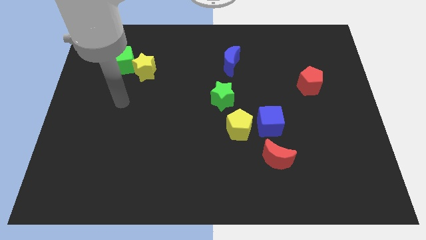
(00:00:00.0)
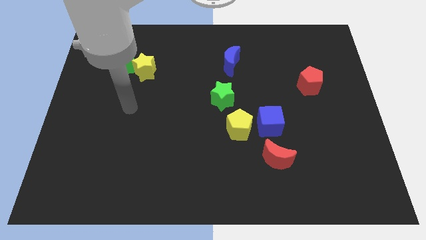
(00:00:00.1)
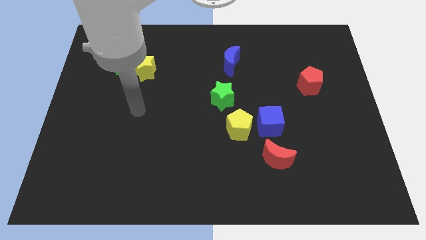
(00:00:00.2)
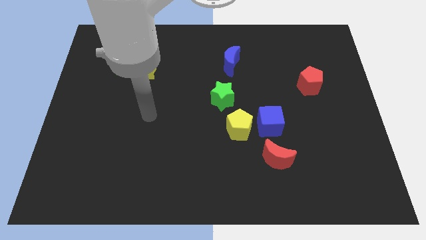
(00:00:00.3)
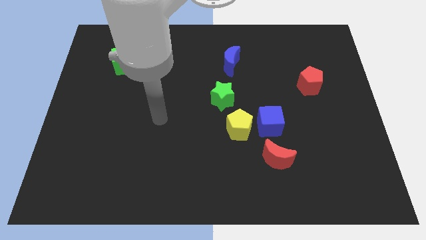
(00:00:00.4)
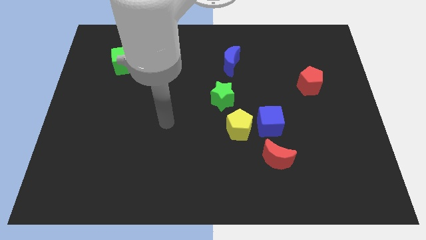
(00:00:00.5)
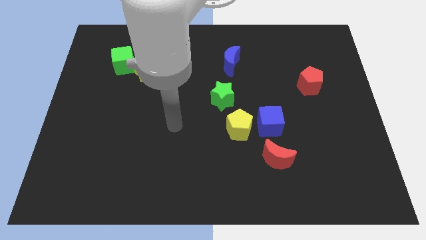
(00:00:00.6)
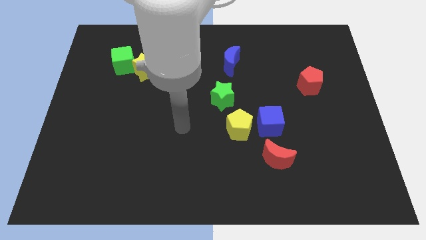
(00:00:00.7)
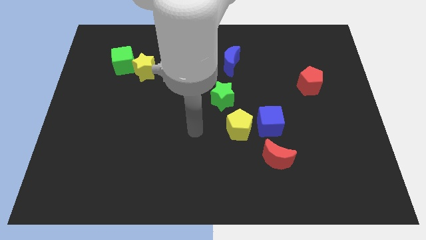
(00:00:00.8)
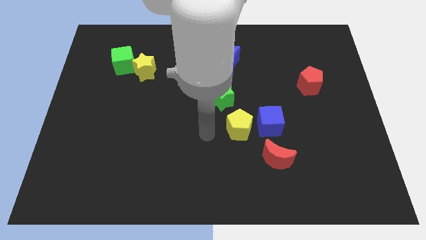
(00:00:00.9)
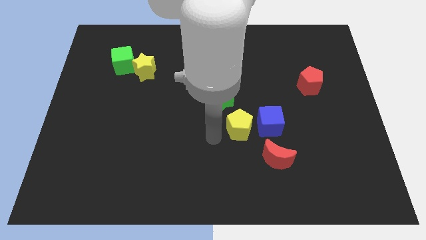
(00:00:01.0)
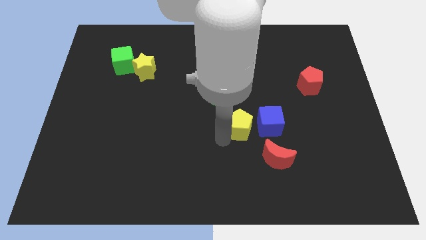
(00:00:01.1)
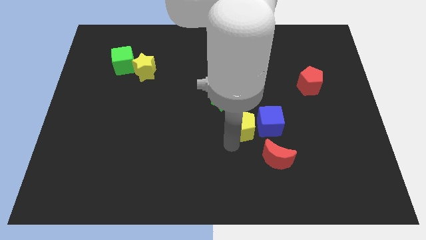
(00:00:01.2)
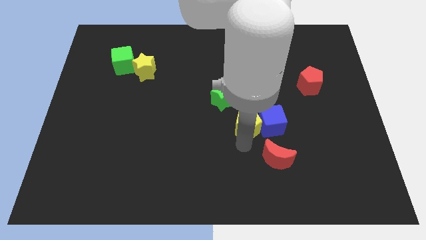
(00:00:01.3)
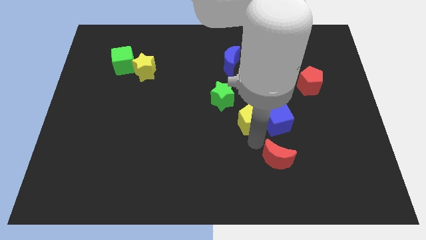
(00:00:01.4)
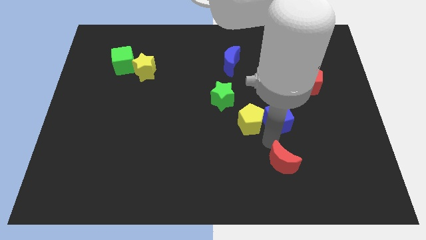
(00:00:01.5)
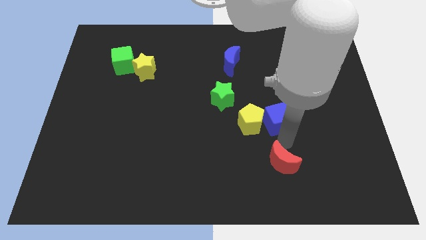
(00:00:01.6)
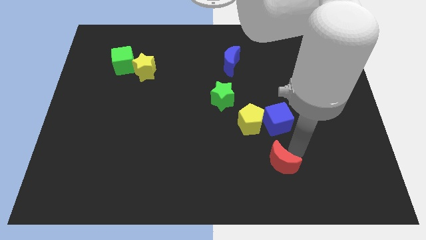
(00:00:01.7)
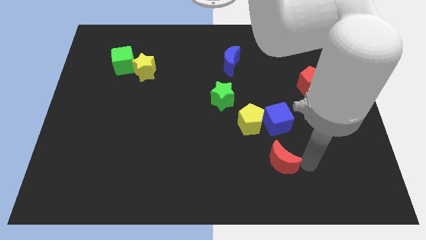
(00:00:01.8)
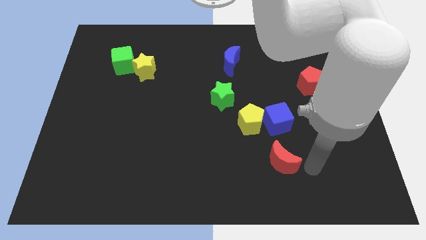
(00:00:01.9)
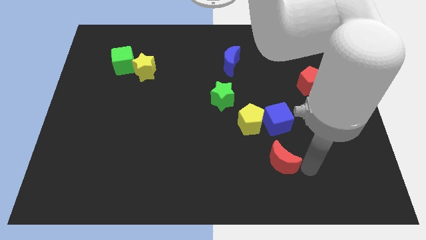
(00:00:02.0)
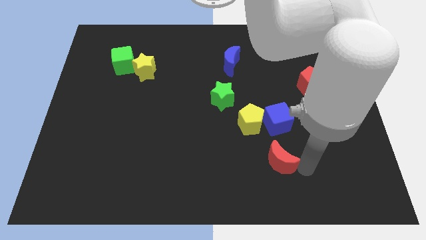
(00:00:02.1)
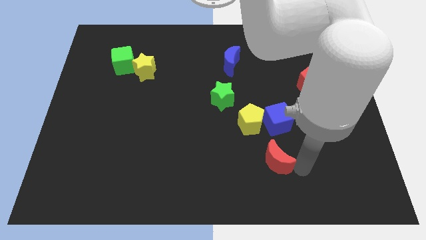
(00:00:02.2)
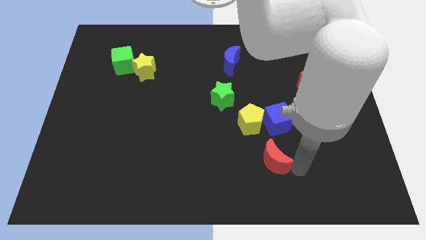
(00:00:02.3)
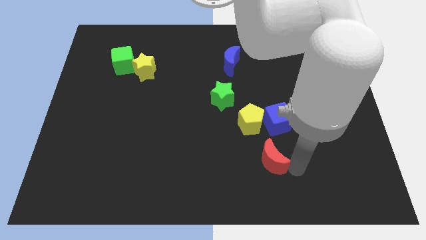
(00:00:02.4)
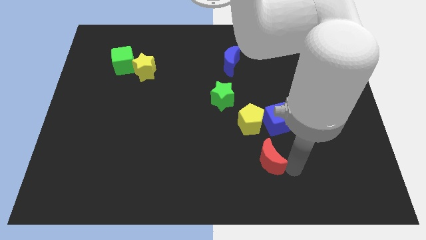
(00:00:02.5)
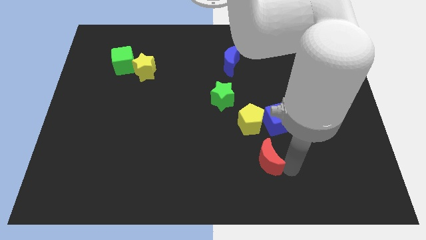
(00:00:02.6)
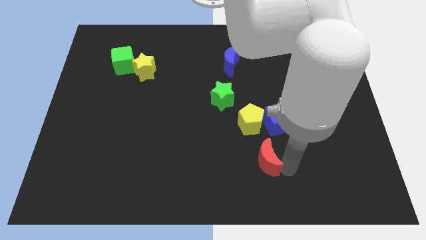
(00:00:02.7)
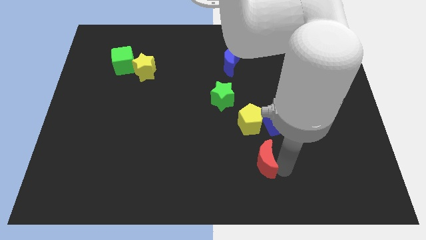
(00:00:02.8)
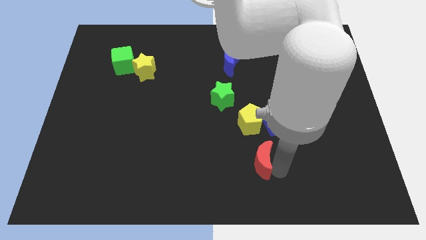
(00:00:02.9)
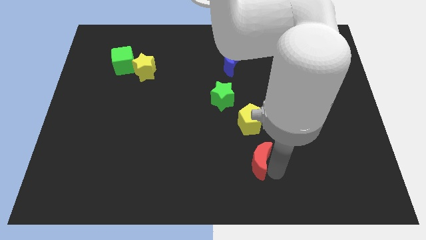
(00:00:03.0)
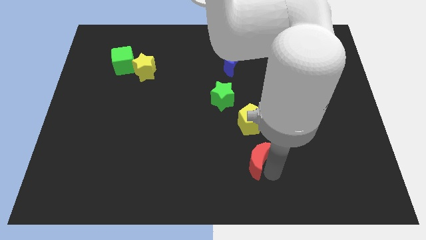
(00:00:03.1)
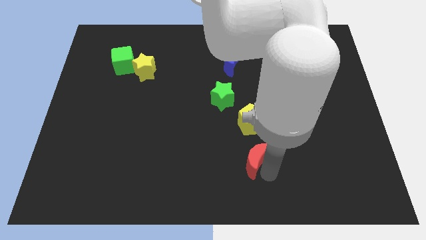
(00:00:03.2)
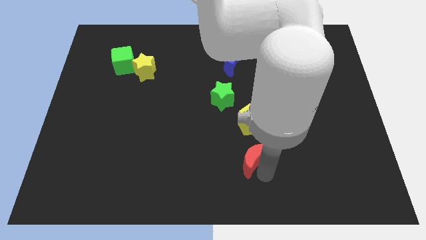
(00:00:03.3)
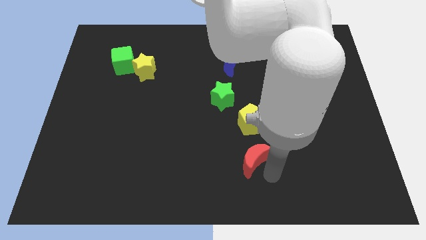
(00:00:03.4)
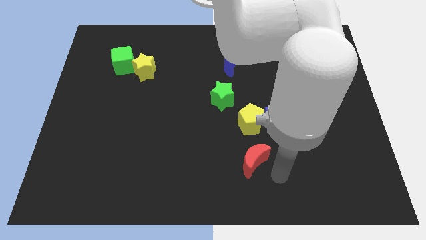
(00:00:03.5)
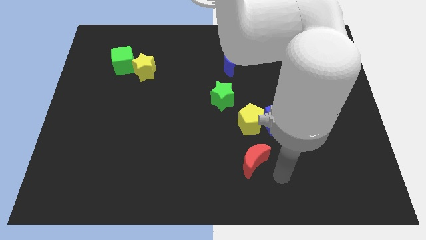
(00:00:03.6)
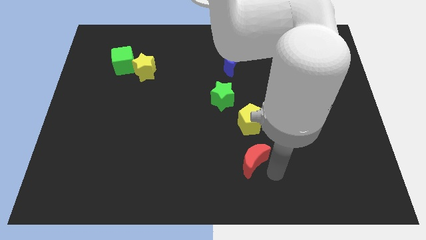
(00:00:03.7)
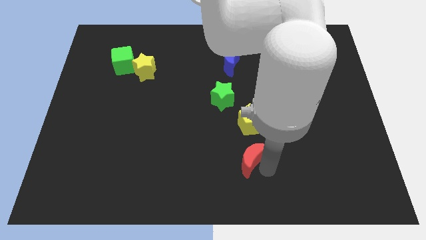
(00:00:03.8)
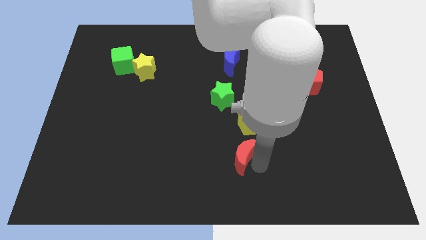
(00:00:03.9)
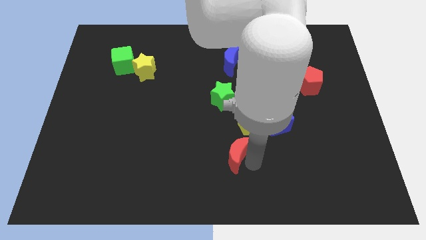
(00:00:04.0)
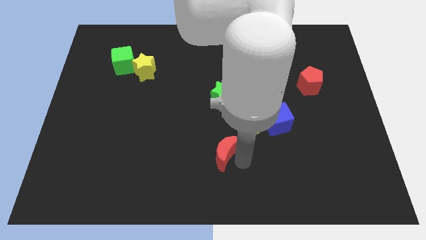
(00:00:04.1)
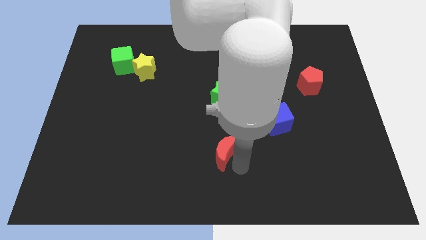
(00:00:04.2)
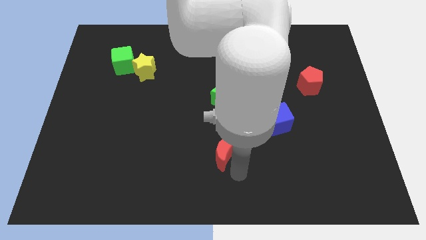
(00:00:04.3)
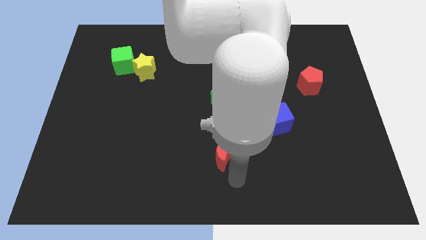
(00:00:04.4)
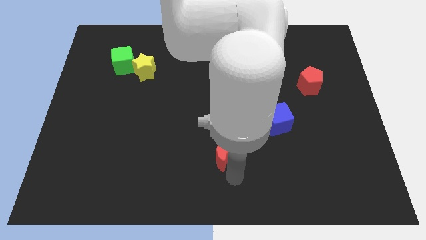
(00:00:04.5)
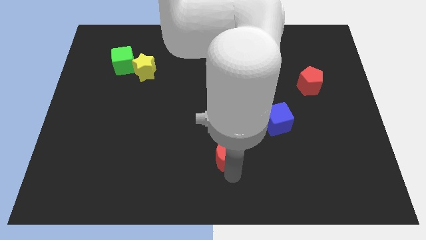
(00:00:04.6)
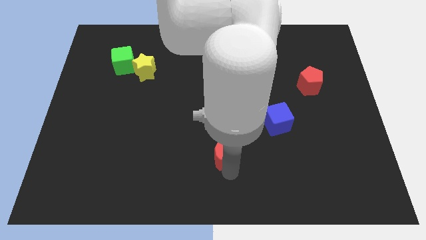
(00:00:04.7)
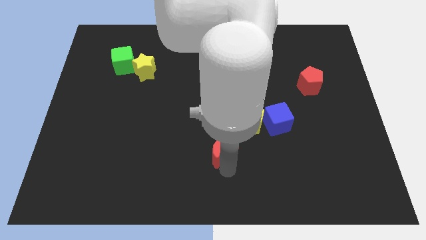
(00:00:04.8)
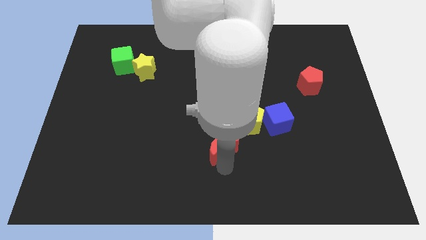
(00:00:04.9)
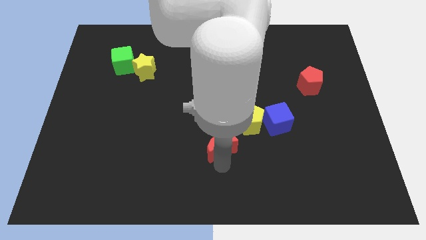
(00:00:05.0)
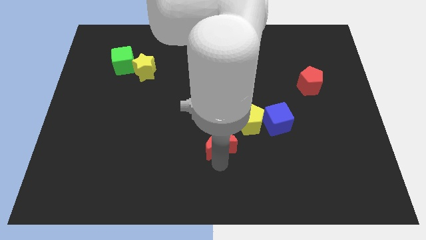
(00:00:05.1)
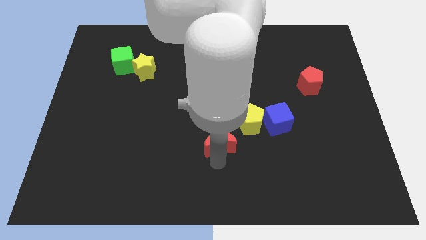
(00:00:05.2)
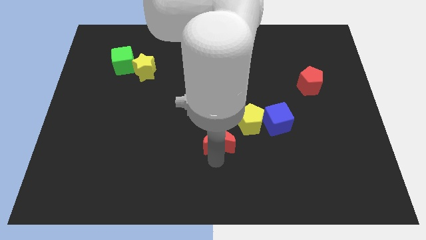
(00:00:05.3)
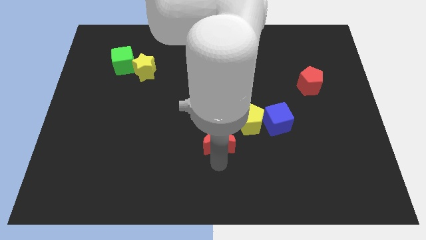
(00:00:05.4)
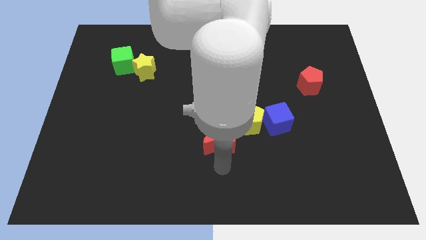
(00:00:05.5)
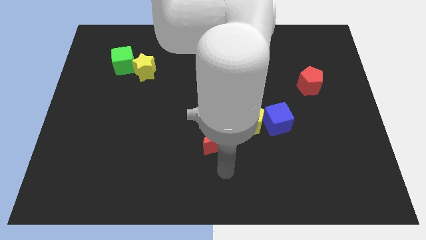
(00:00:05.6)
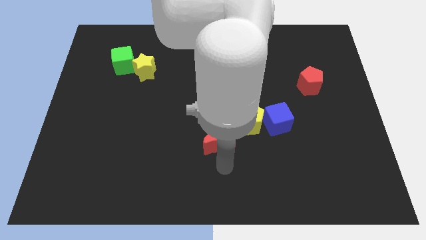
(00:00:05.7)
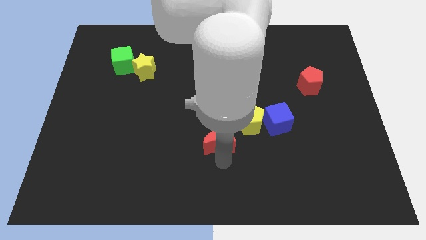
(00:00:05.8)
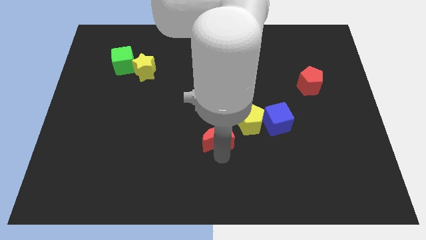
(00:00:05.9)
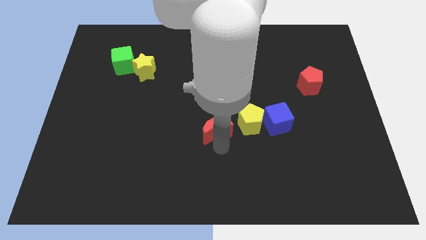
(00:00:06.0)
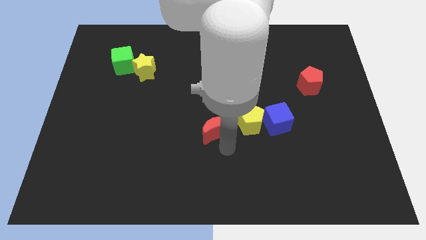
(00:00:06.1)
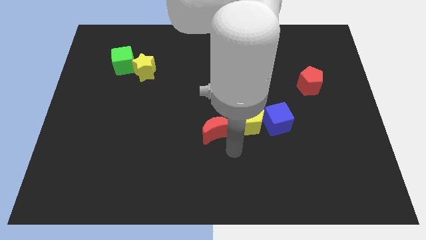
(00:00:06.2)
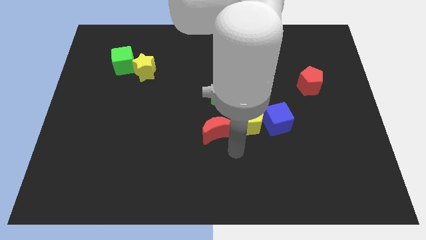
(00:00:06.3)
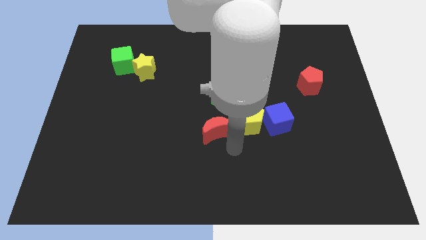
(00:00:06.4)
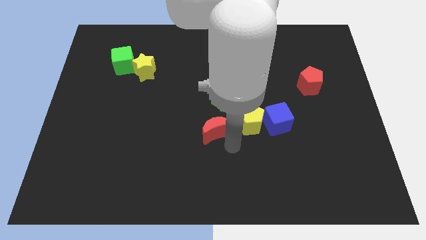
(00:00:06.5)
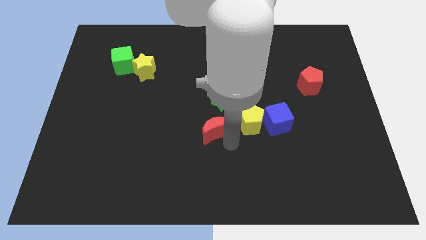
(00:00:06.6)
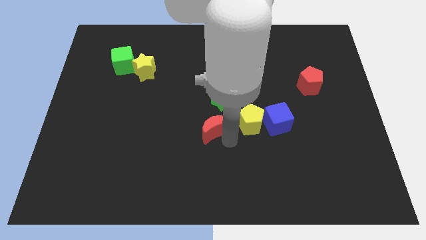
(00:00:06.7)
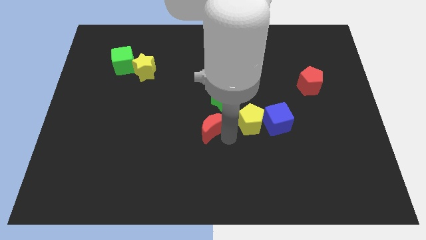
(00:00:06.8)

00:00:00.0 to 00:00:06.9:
slide the red moon diagonally down and to the left of the green star

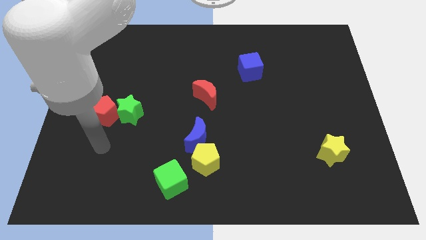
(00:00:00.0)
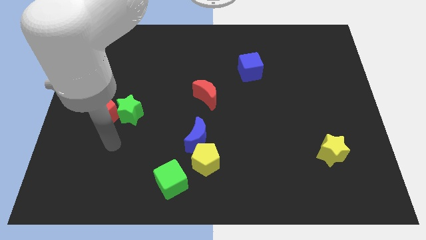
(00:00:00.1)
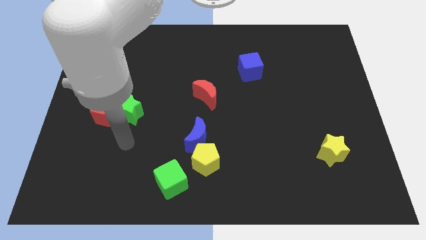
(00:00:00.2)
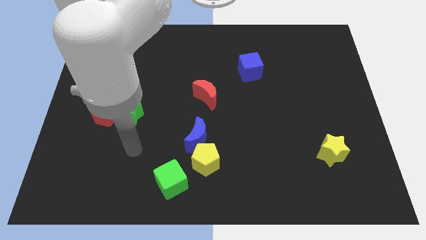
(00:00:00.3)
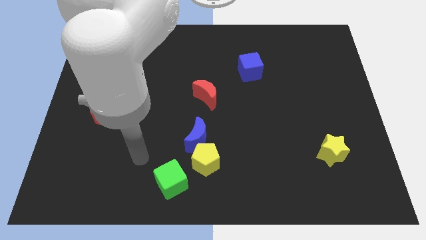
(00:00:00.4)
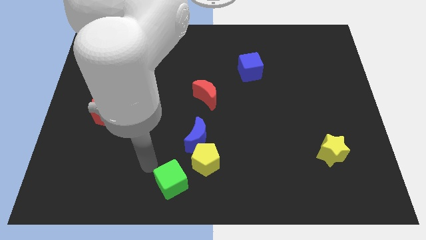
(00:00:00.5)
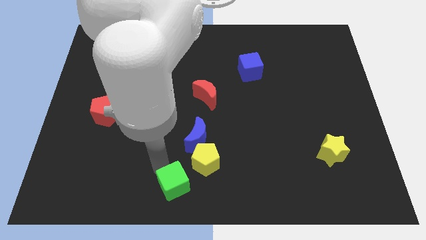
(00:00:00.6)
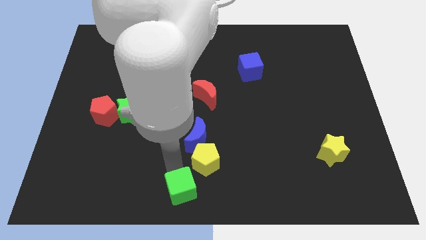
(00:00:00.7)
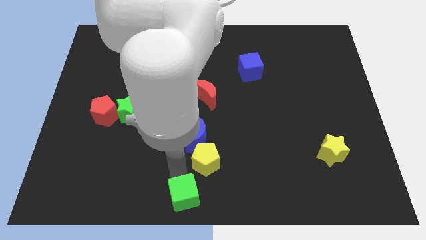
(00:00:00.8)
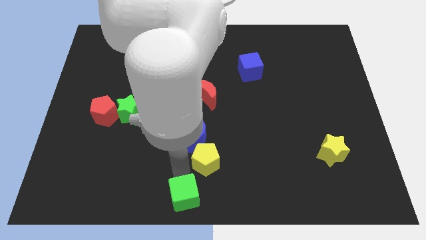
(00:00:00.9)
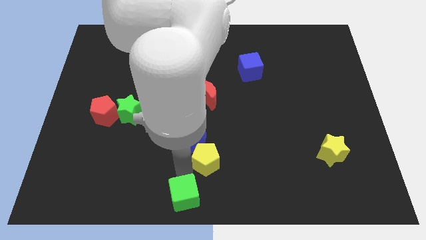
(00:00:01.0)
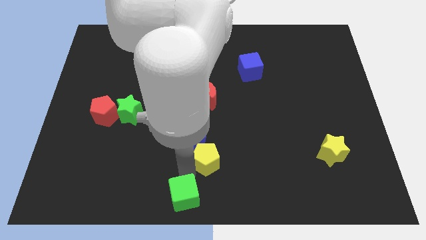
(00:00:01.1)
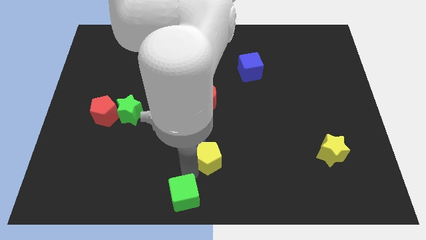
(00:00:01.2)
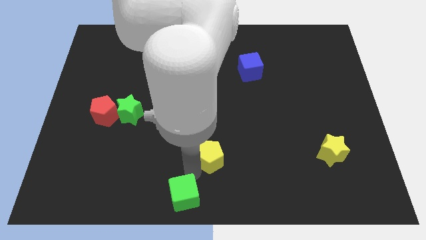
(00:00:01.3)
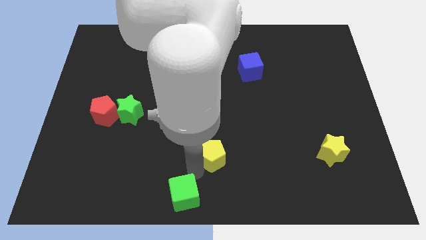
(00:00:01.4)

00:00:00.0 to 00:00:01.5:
slide the yellow pentagon to the right side of the blue moon
